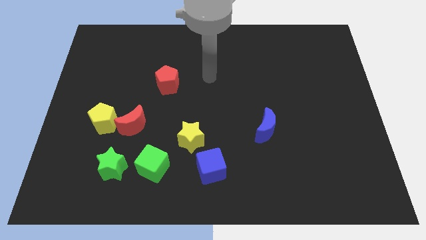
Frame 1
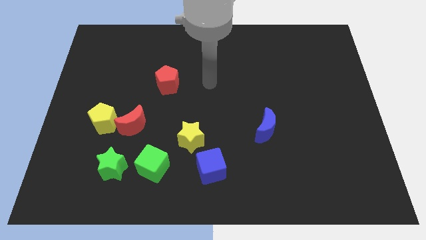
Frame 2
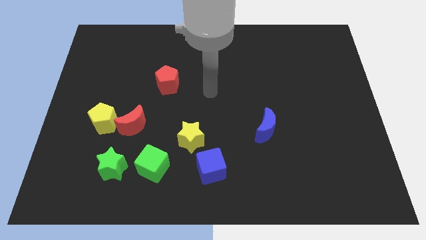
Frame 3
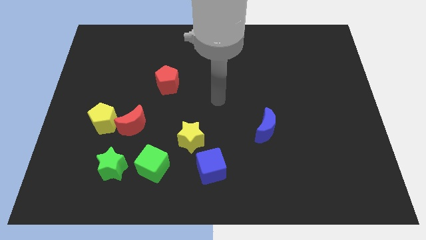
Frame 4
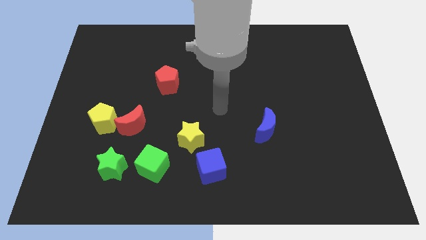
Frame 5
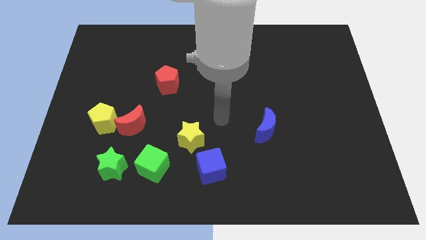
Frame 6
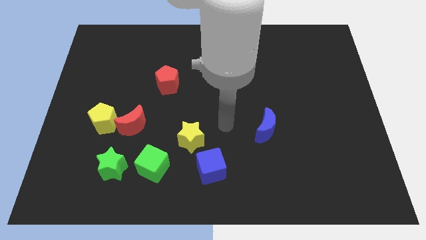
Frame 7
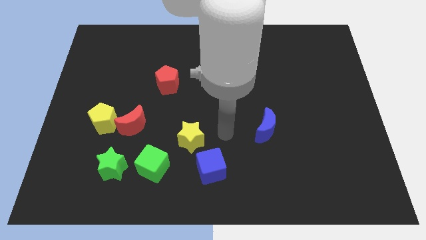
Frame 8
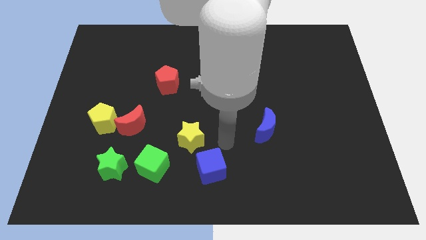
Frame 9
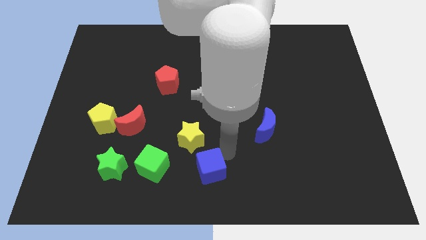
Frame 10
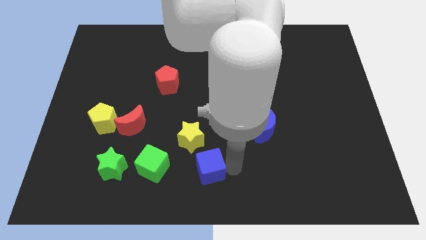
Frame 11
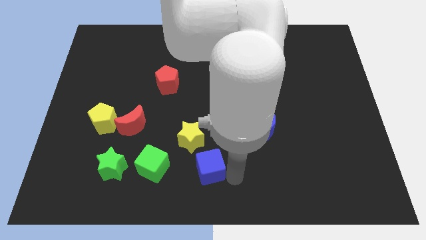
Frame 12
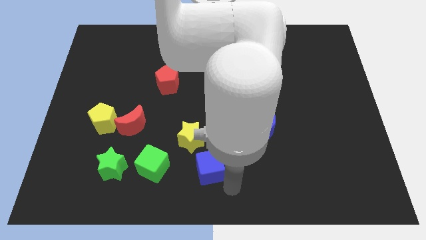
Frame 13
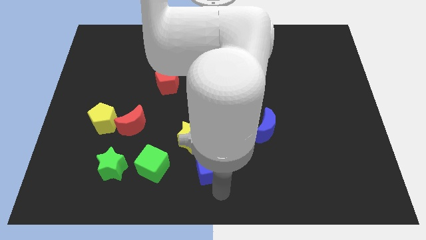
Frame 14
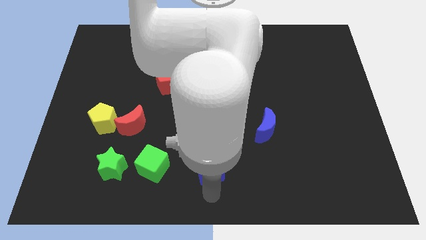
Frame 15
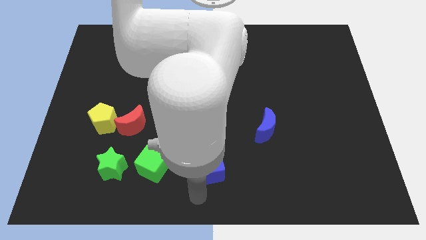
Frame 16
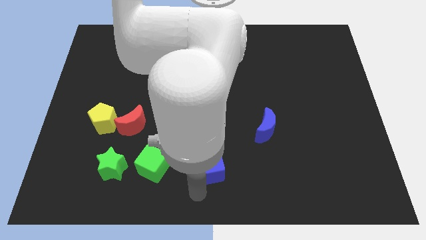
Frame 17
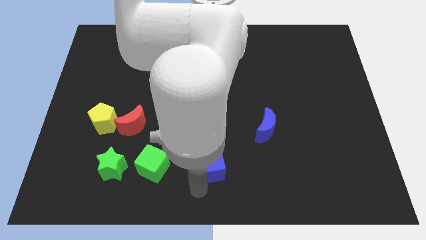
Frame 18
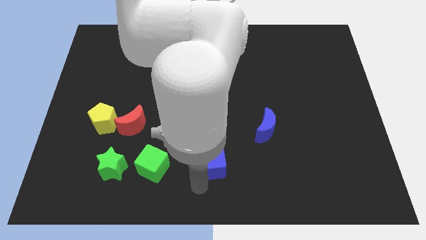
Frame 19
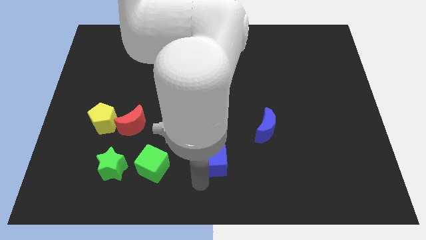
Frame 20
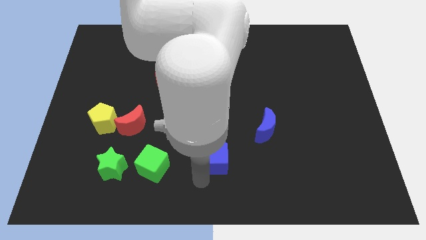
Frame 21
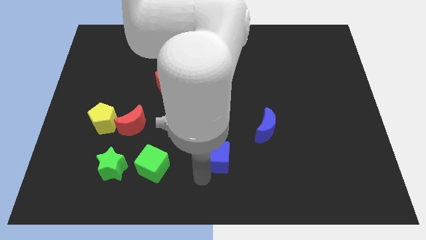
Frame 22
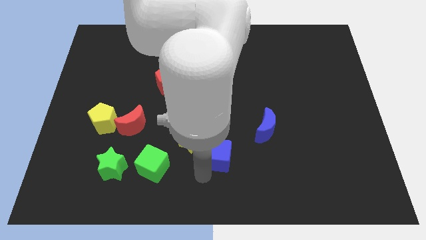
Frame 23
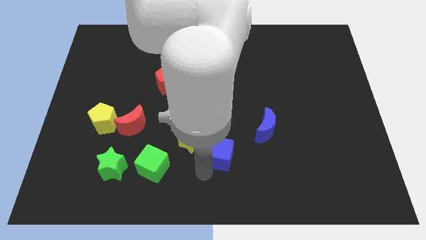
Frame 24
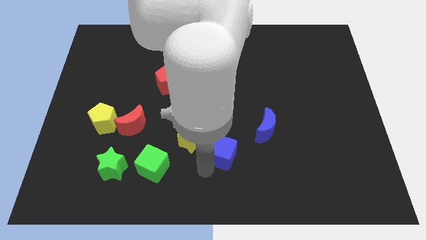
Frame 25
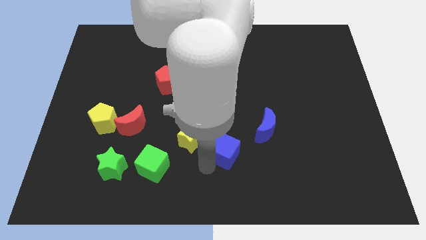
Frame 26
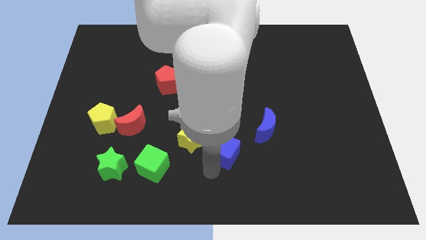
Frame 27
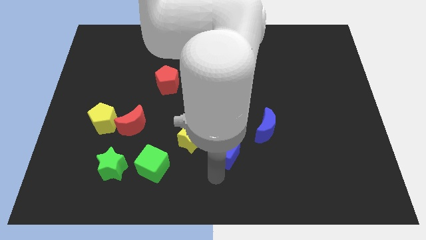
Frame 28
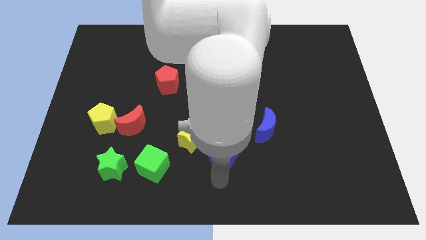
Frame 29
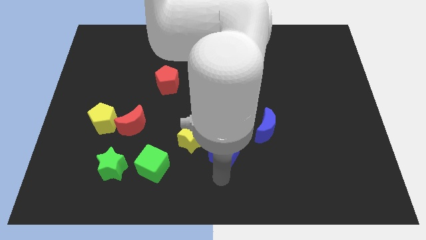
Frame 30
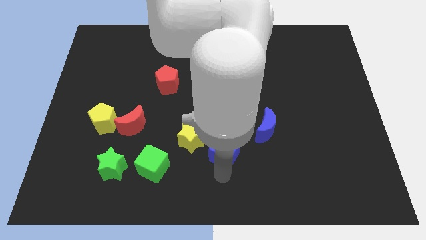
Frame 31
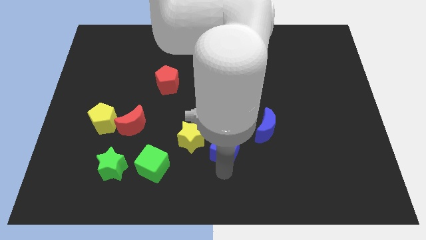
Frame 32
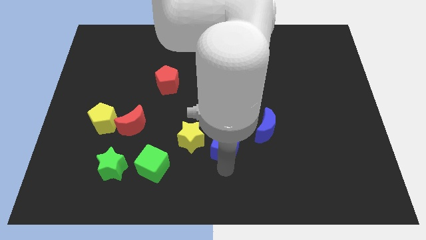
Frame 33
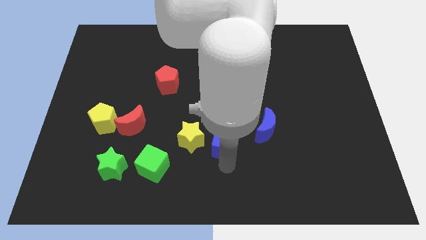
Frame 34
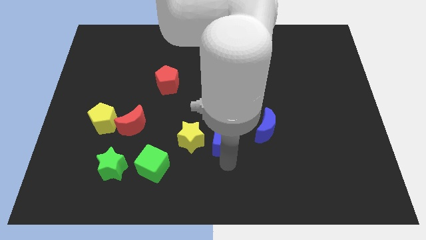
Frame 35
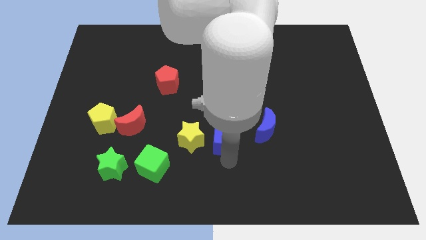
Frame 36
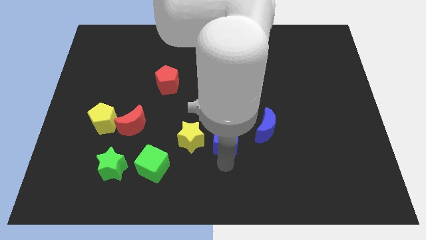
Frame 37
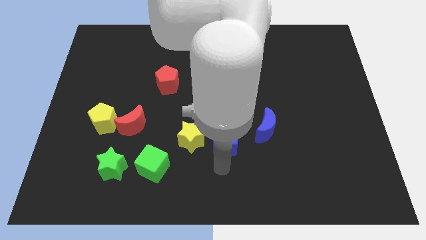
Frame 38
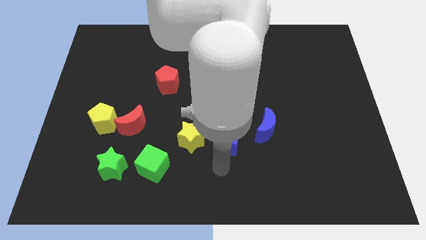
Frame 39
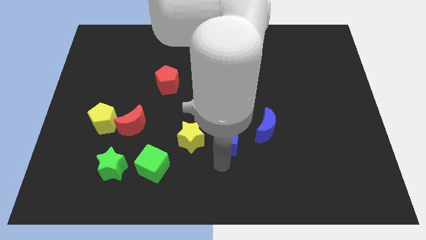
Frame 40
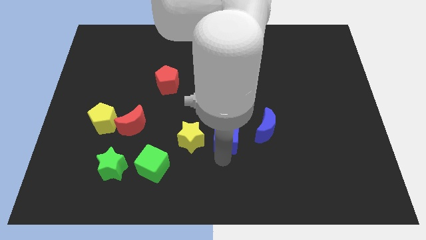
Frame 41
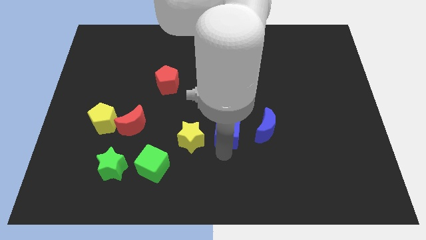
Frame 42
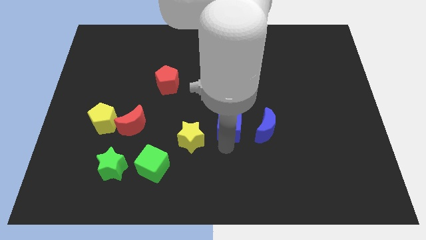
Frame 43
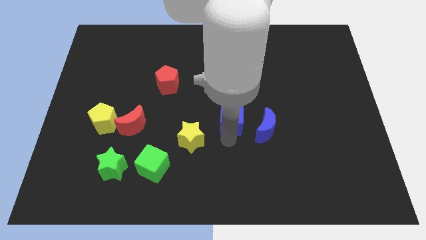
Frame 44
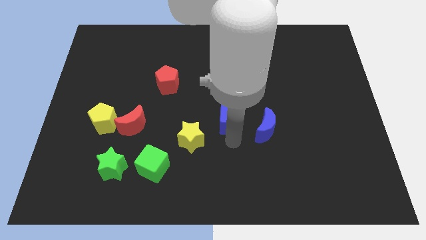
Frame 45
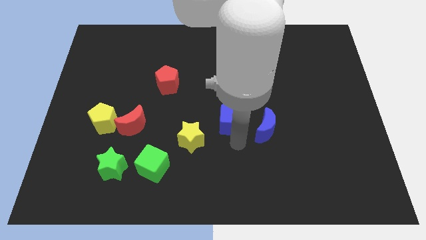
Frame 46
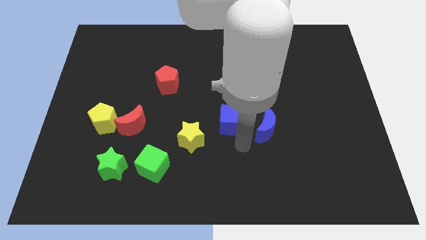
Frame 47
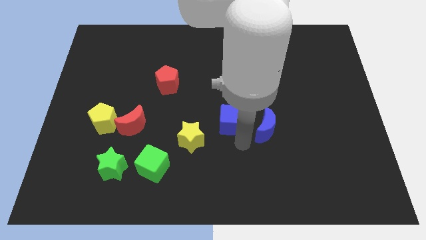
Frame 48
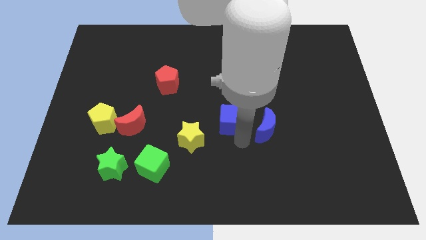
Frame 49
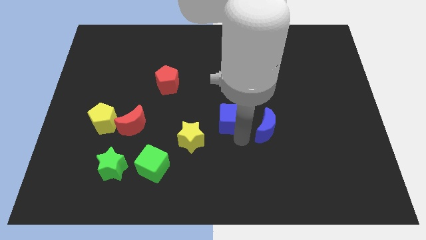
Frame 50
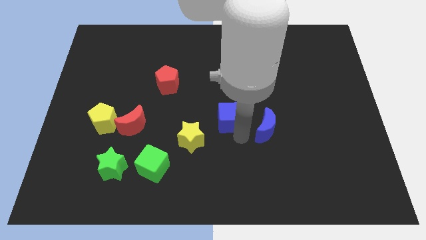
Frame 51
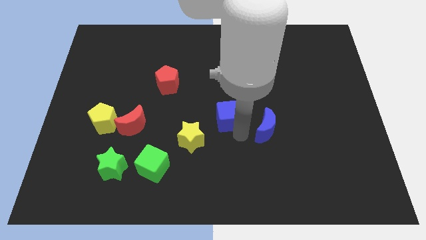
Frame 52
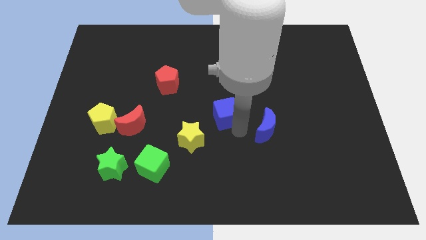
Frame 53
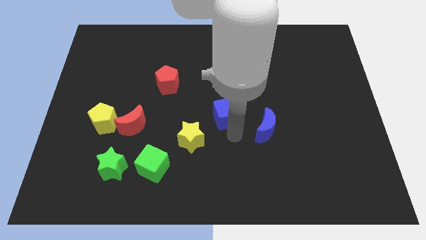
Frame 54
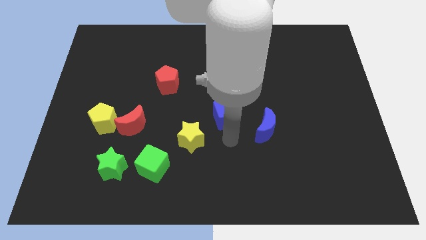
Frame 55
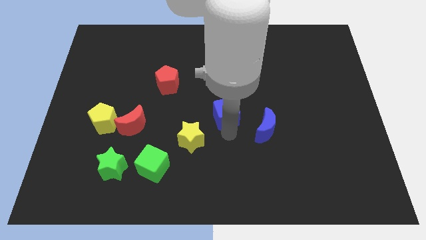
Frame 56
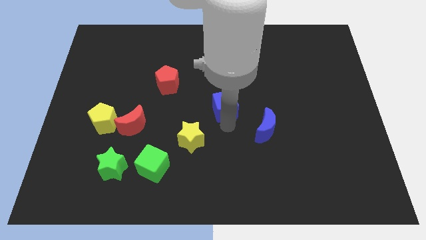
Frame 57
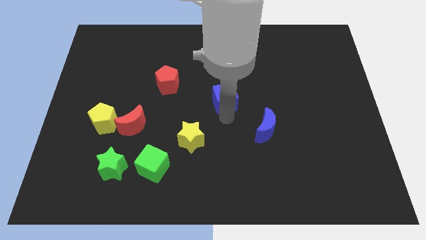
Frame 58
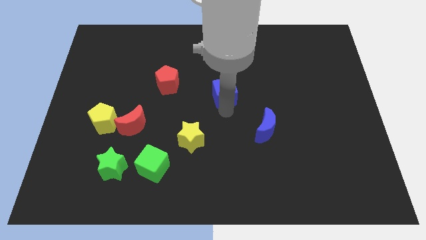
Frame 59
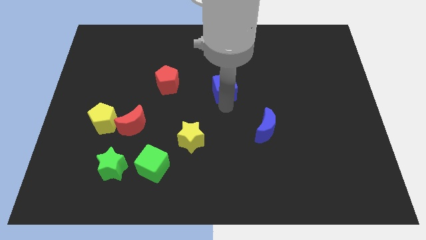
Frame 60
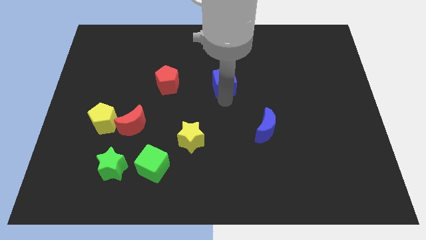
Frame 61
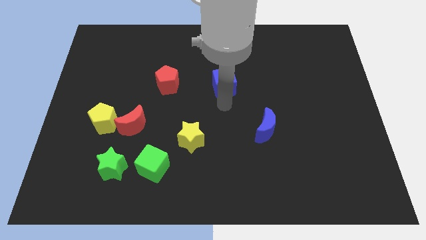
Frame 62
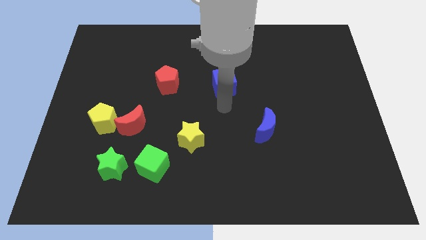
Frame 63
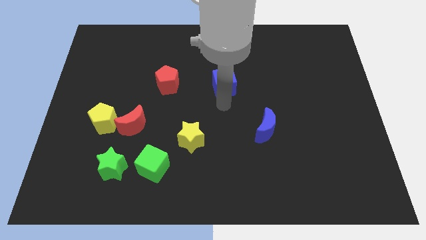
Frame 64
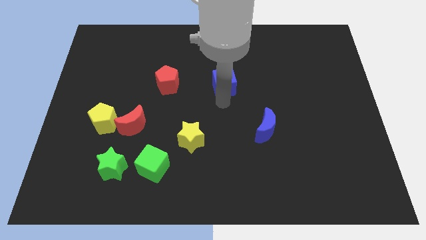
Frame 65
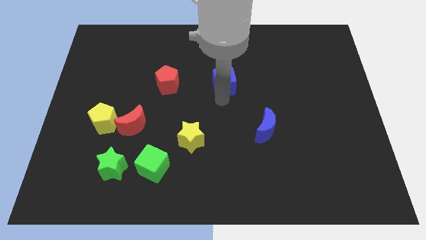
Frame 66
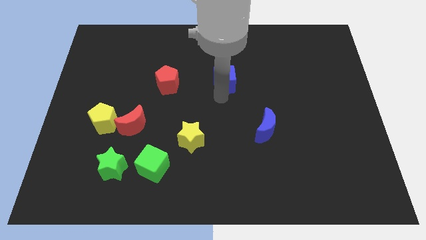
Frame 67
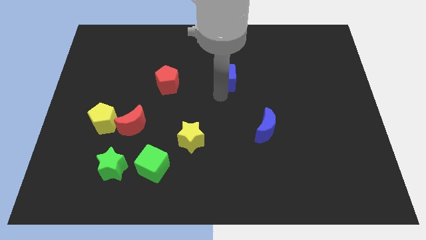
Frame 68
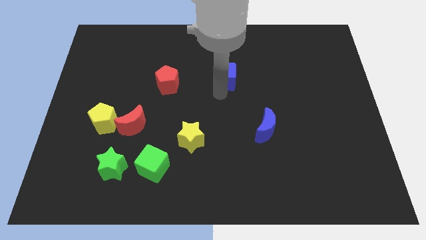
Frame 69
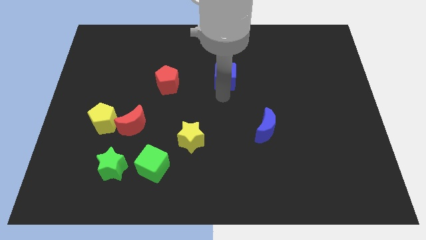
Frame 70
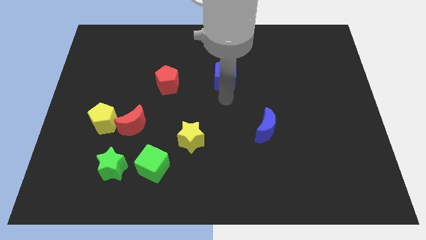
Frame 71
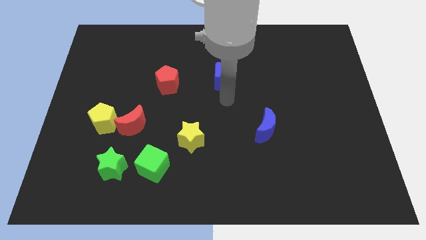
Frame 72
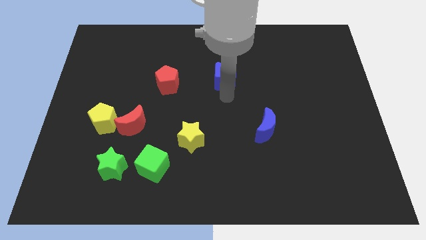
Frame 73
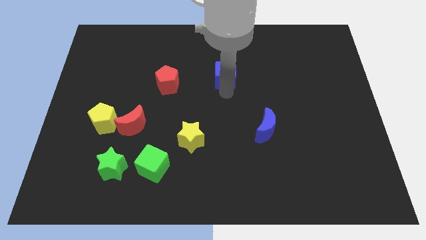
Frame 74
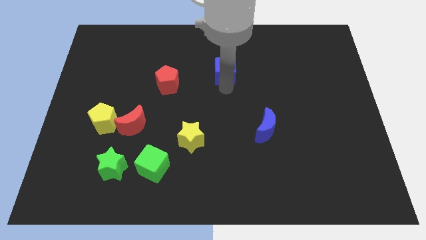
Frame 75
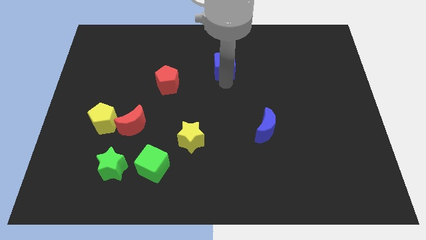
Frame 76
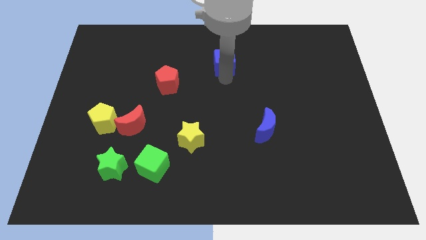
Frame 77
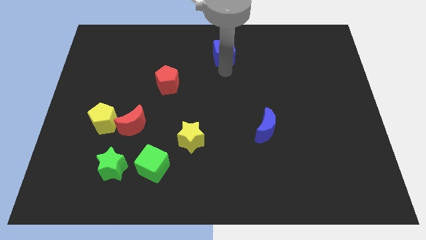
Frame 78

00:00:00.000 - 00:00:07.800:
push the blue cube to the top side
